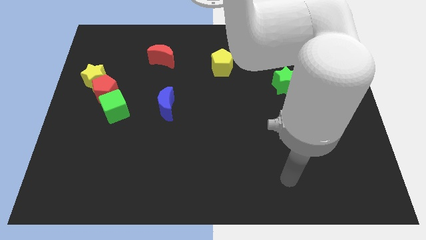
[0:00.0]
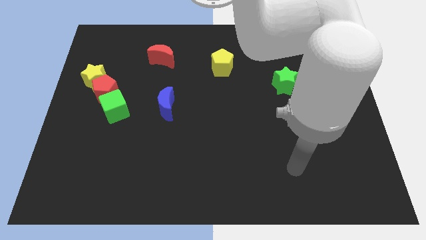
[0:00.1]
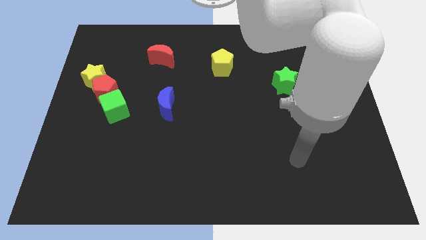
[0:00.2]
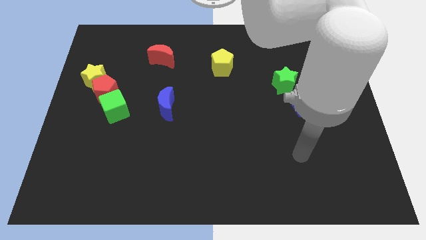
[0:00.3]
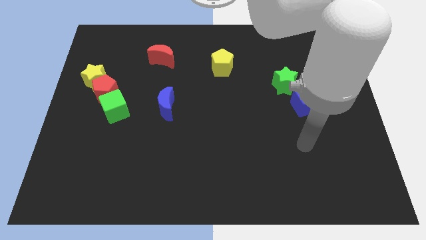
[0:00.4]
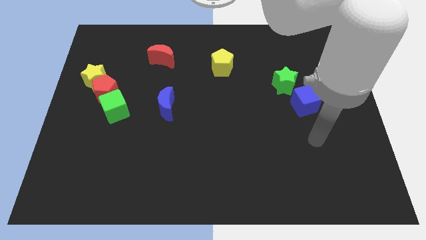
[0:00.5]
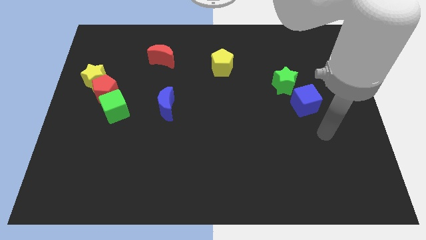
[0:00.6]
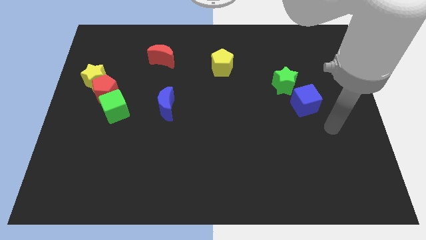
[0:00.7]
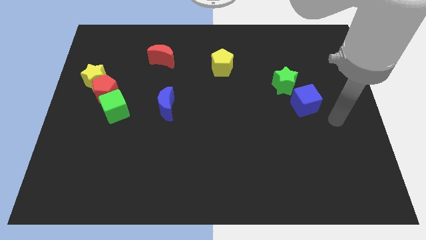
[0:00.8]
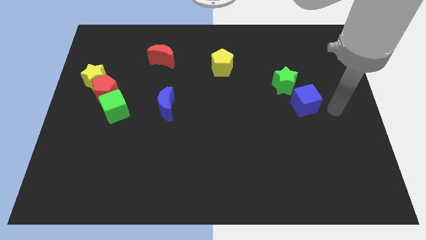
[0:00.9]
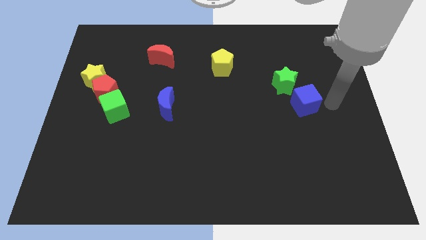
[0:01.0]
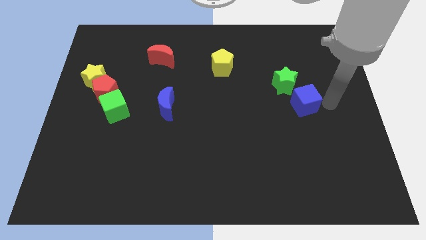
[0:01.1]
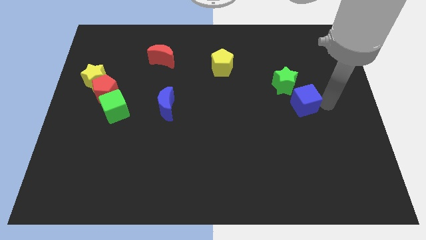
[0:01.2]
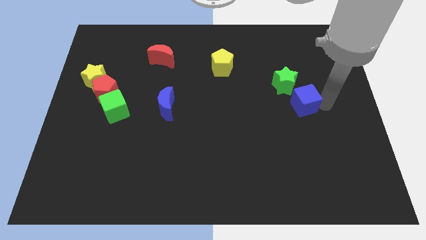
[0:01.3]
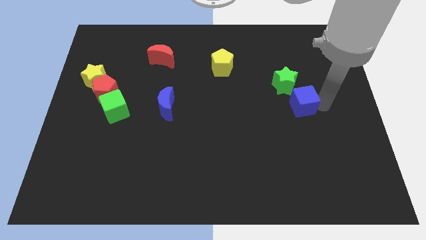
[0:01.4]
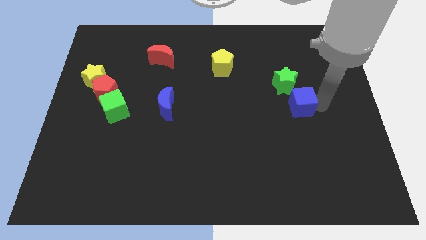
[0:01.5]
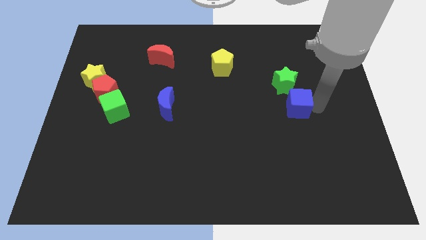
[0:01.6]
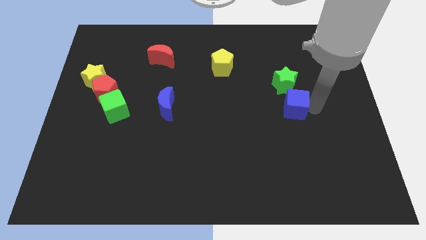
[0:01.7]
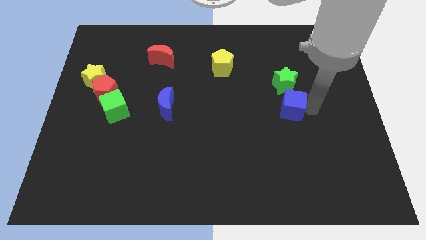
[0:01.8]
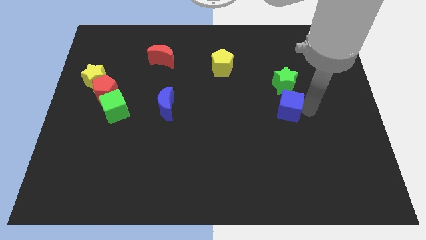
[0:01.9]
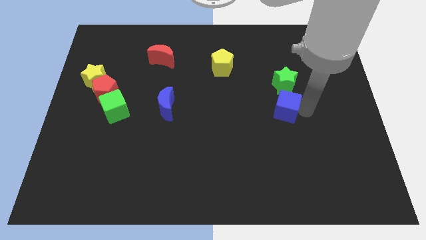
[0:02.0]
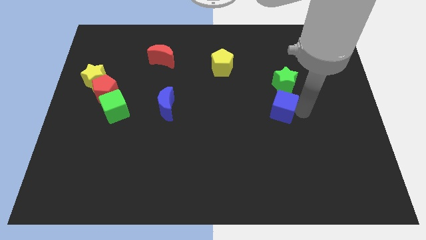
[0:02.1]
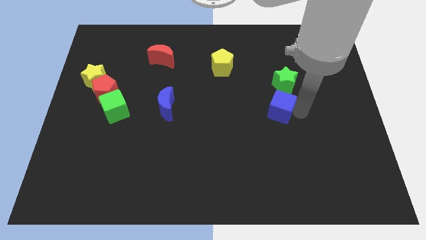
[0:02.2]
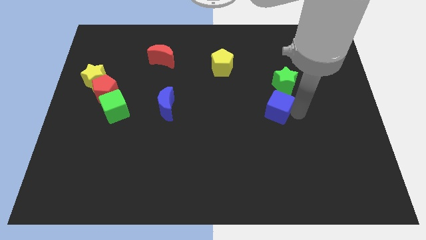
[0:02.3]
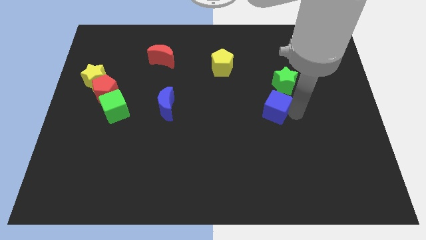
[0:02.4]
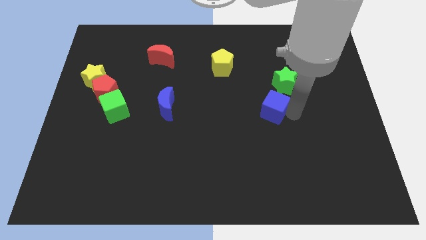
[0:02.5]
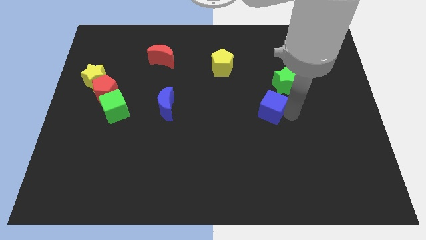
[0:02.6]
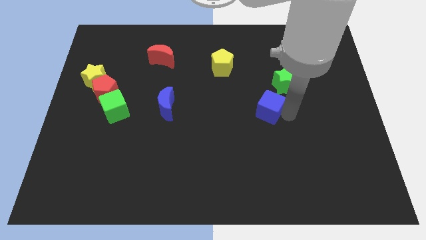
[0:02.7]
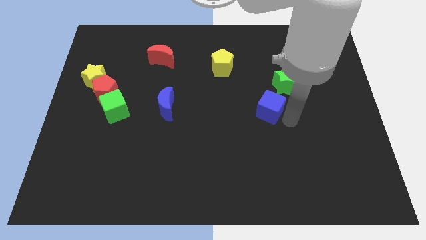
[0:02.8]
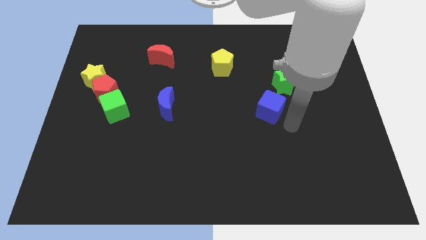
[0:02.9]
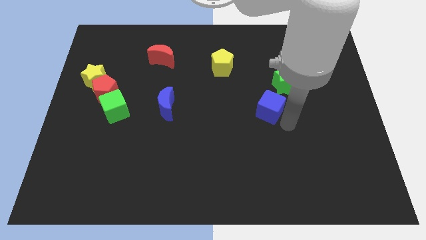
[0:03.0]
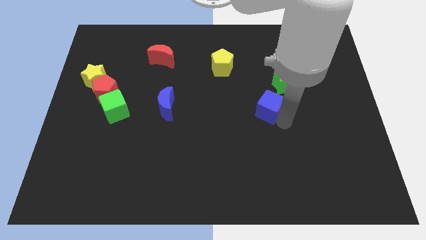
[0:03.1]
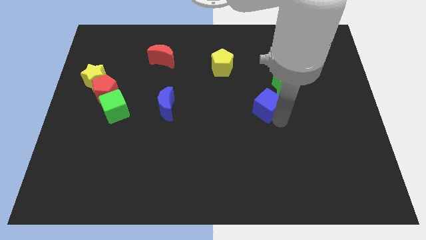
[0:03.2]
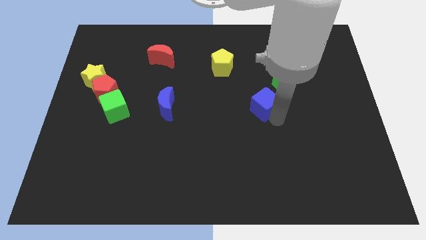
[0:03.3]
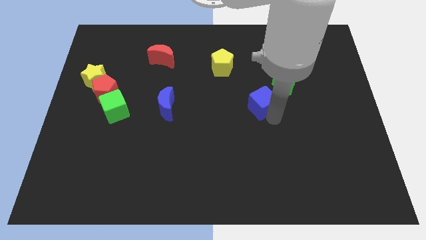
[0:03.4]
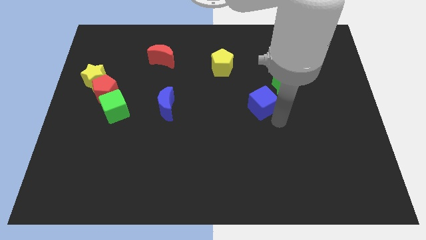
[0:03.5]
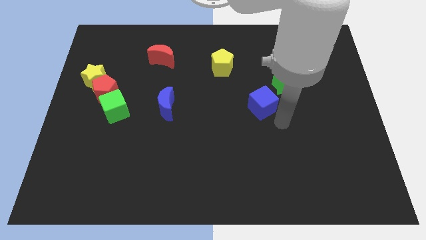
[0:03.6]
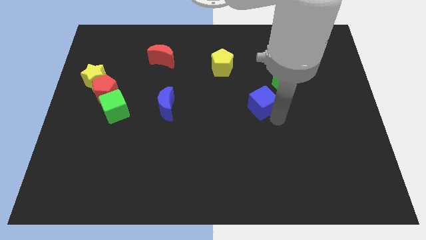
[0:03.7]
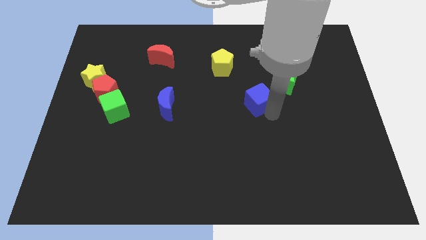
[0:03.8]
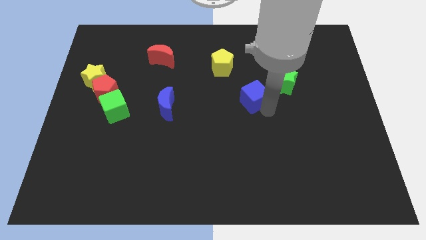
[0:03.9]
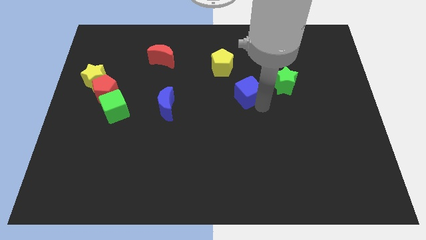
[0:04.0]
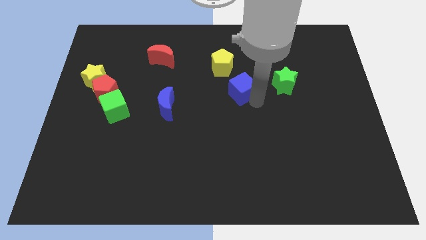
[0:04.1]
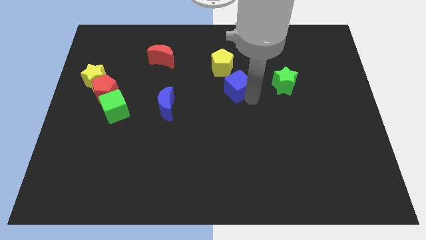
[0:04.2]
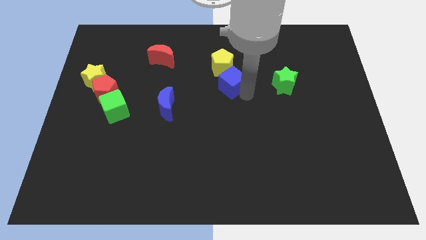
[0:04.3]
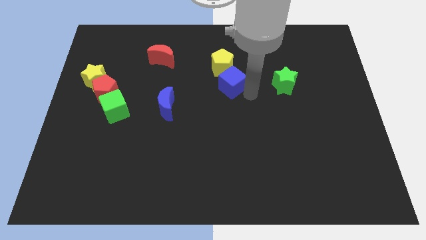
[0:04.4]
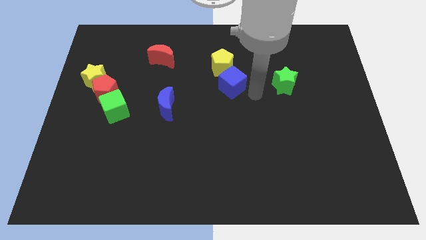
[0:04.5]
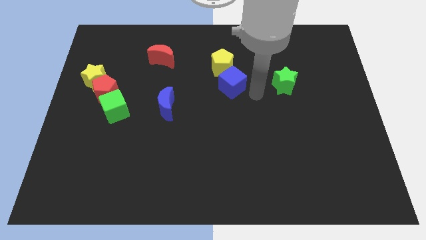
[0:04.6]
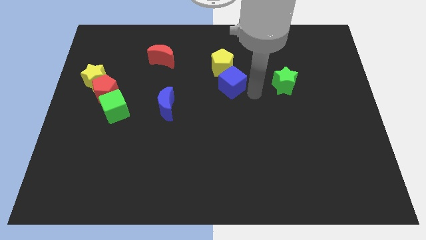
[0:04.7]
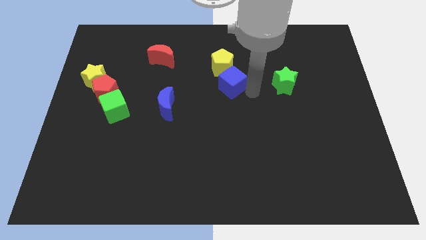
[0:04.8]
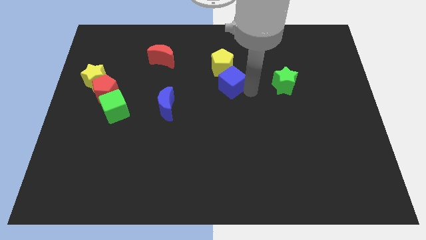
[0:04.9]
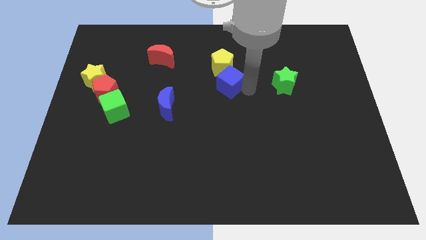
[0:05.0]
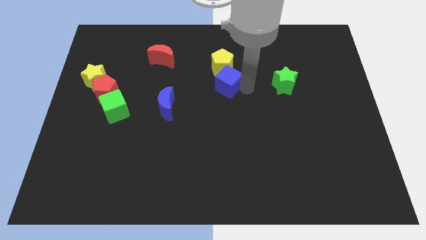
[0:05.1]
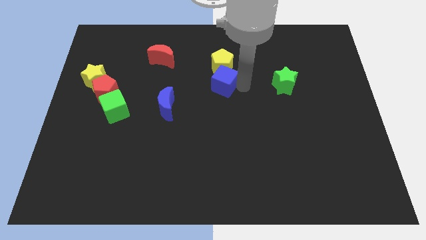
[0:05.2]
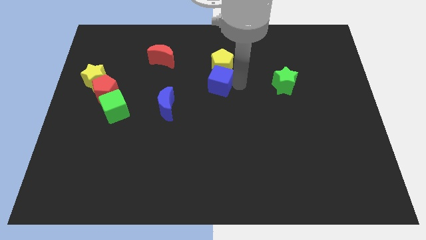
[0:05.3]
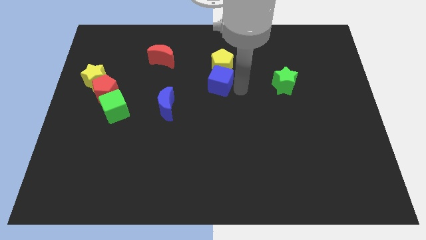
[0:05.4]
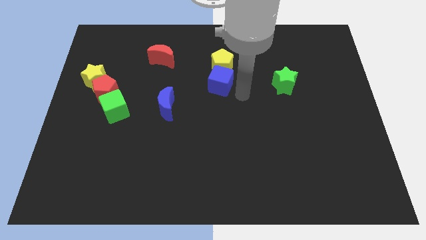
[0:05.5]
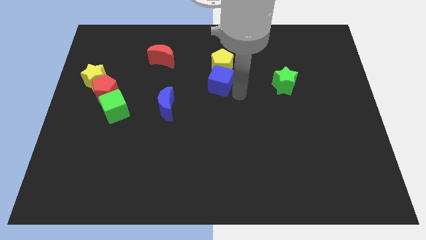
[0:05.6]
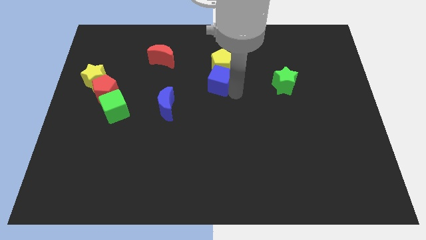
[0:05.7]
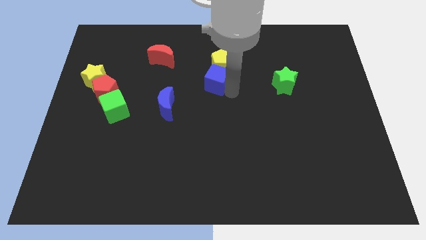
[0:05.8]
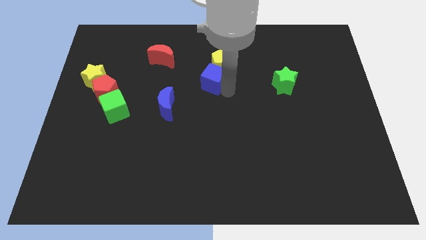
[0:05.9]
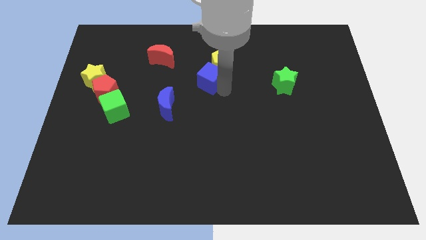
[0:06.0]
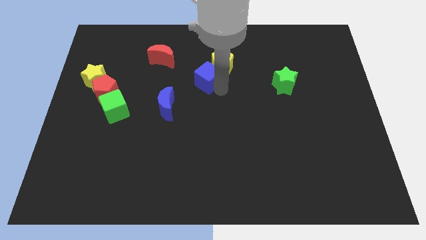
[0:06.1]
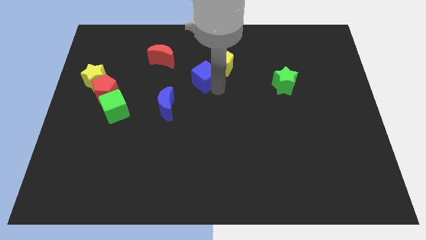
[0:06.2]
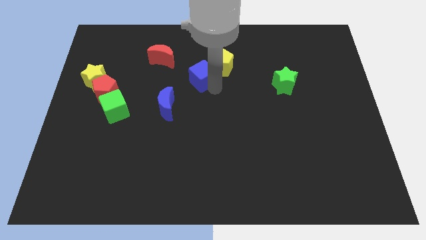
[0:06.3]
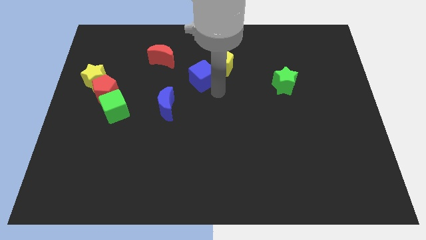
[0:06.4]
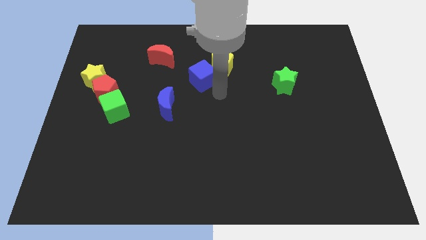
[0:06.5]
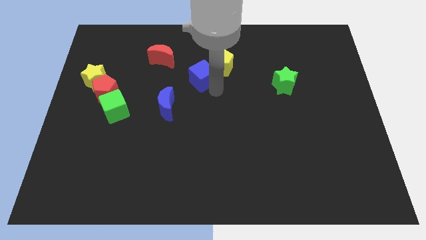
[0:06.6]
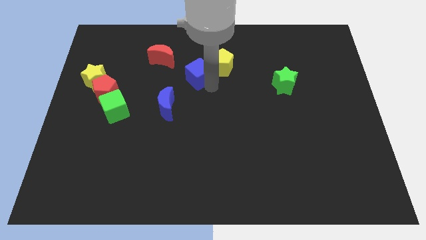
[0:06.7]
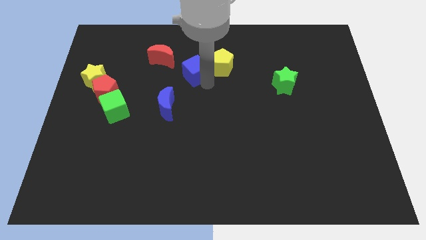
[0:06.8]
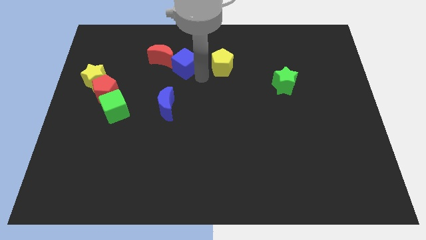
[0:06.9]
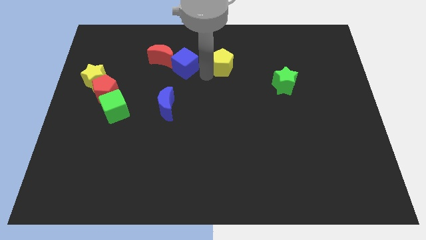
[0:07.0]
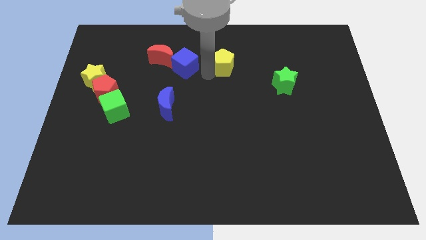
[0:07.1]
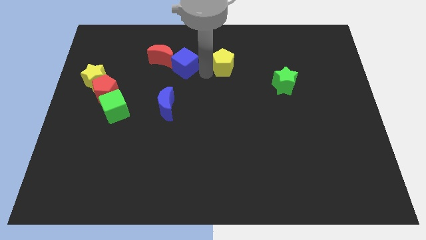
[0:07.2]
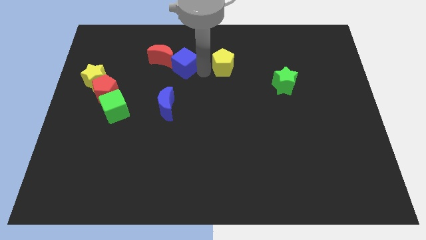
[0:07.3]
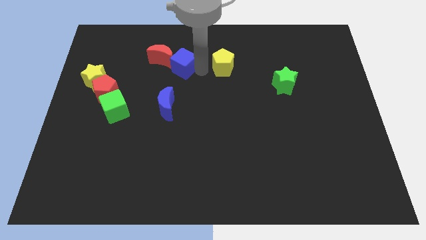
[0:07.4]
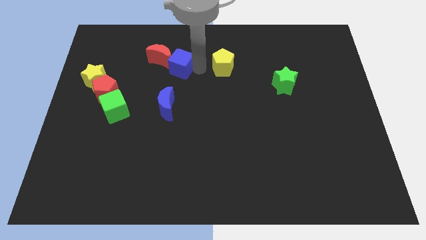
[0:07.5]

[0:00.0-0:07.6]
slide the blue cube to the red moon
